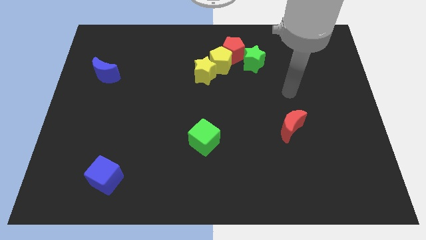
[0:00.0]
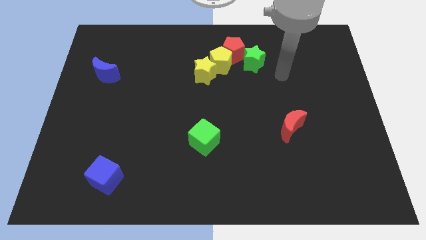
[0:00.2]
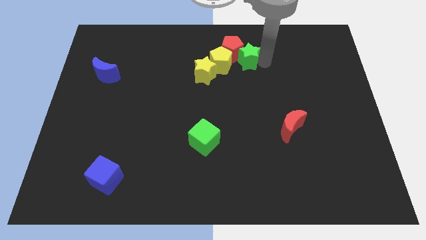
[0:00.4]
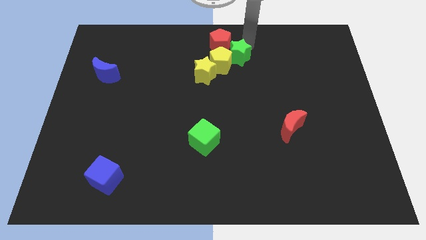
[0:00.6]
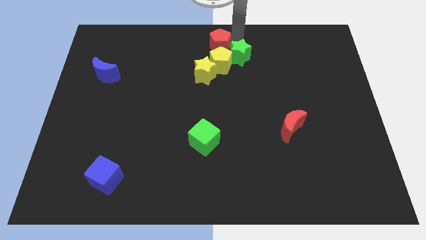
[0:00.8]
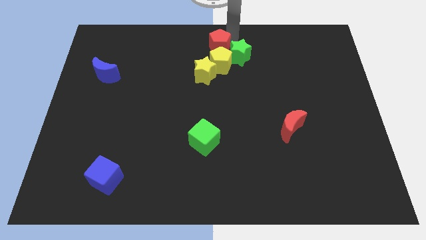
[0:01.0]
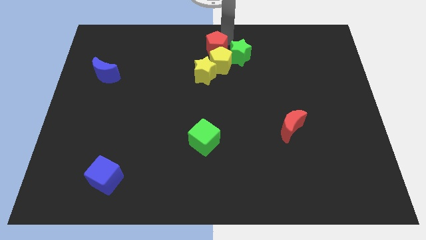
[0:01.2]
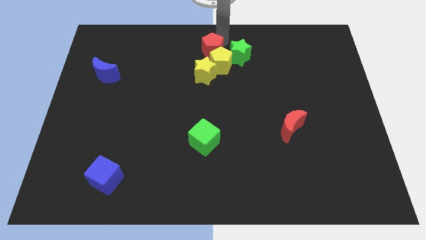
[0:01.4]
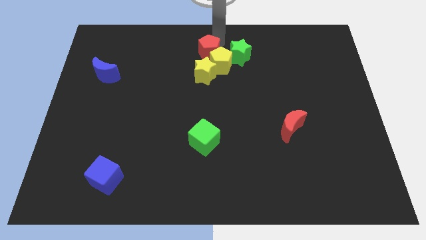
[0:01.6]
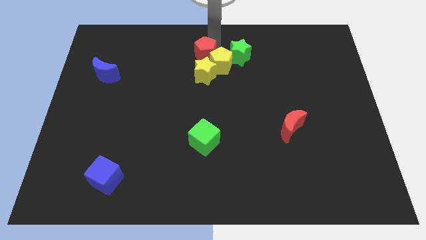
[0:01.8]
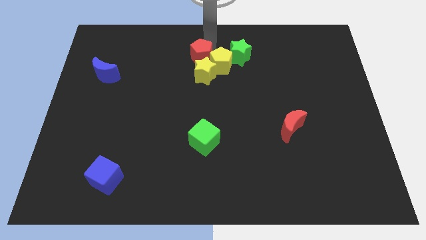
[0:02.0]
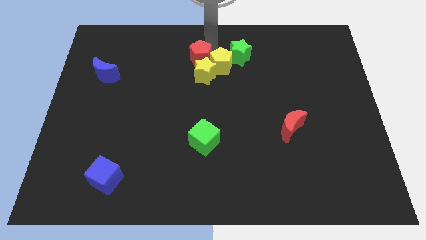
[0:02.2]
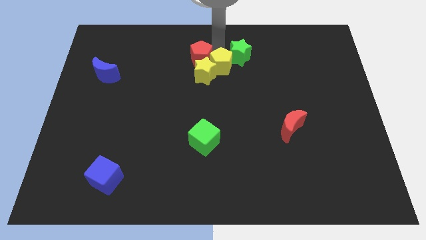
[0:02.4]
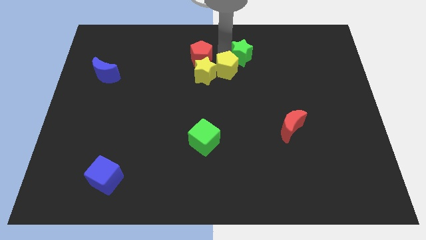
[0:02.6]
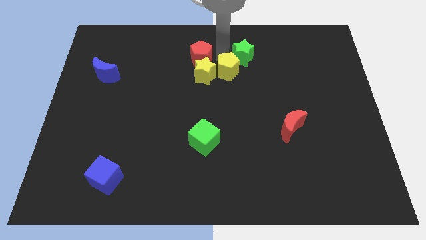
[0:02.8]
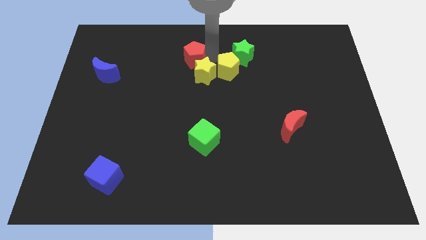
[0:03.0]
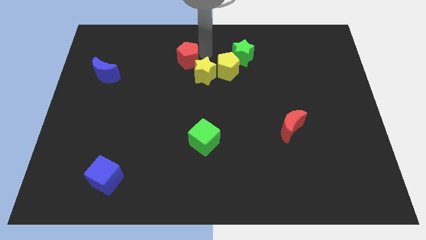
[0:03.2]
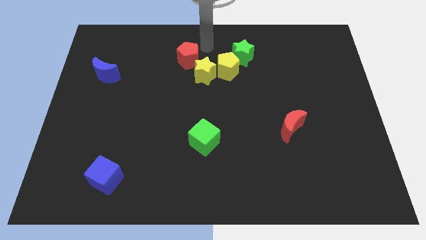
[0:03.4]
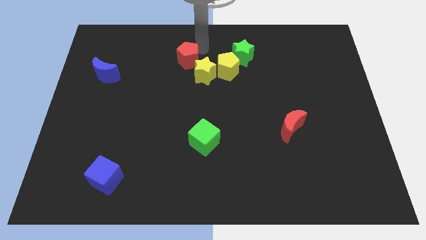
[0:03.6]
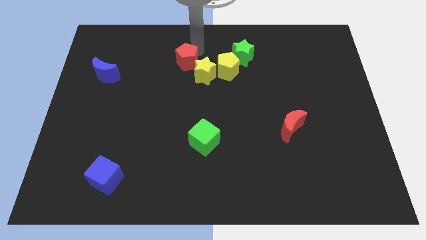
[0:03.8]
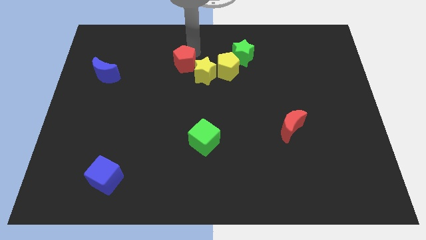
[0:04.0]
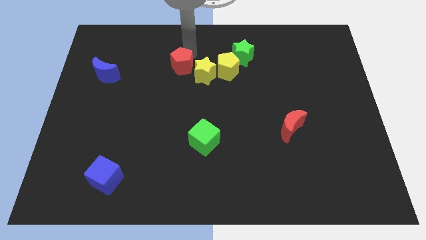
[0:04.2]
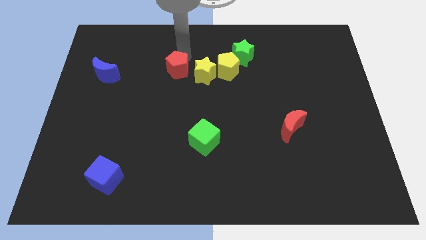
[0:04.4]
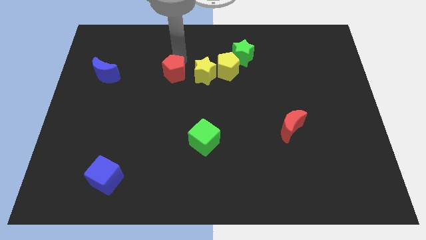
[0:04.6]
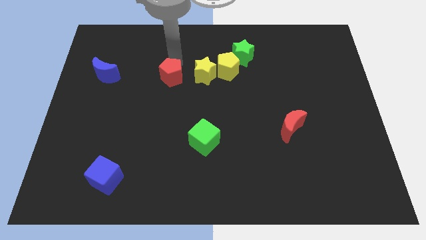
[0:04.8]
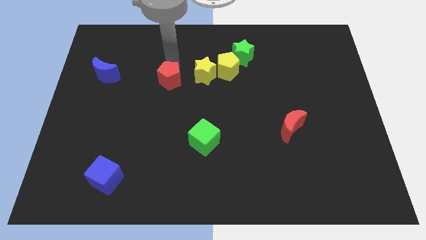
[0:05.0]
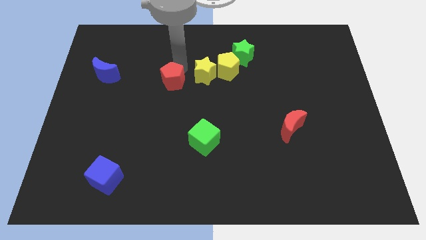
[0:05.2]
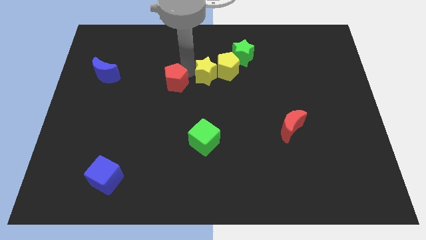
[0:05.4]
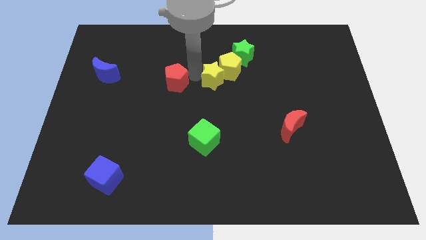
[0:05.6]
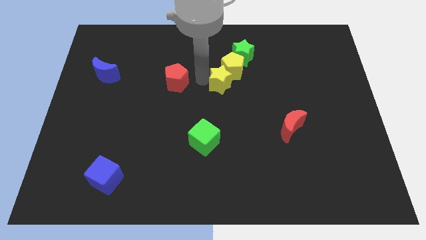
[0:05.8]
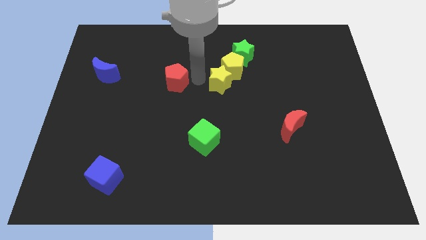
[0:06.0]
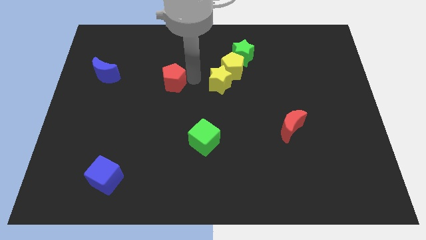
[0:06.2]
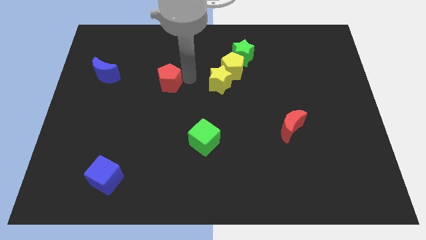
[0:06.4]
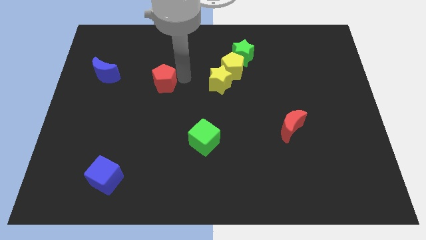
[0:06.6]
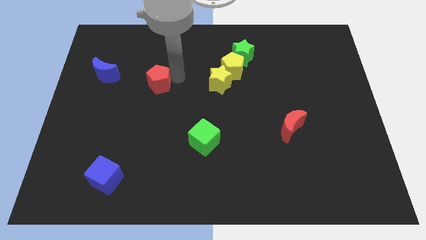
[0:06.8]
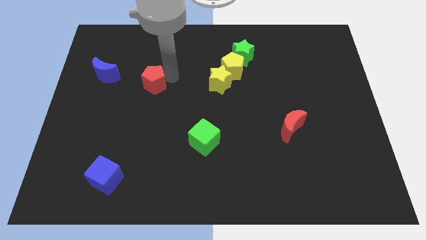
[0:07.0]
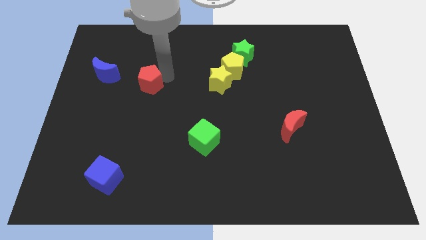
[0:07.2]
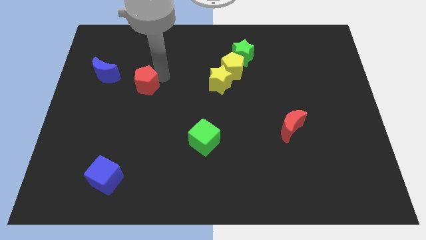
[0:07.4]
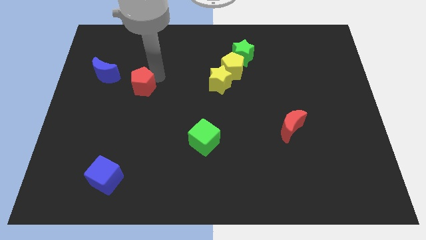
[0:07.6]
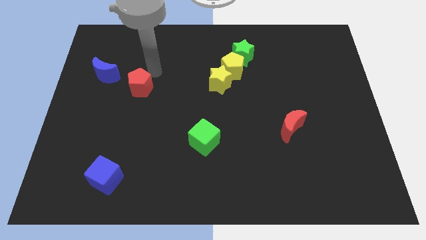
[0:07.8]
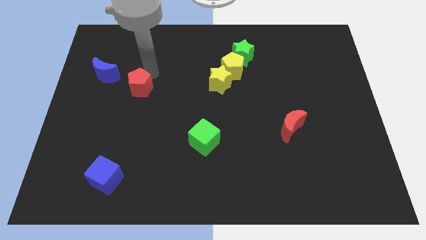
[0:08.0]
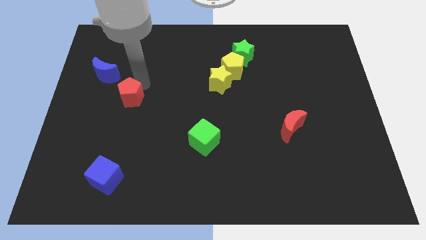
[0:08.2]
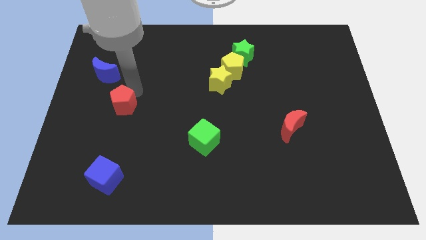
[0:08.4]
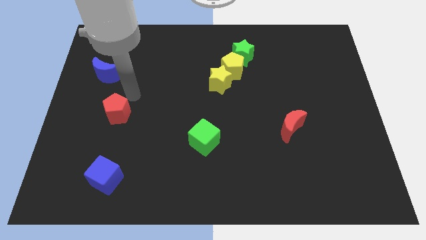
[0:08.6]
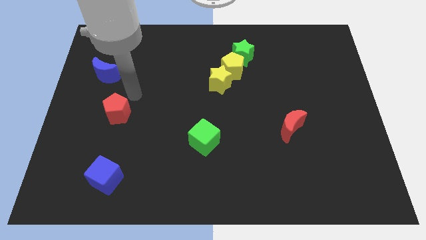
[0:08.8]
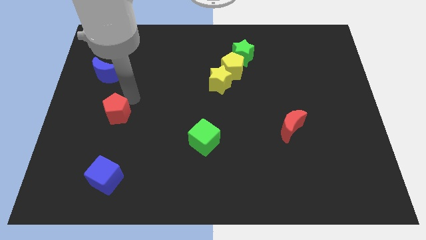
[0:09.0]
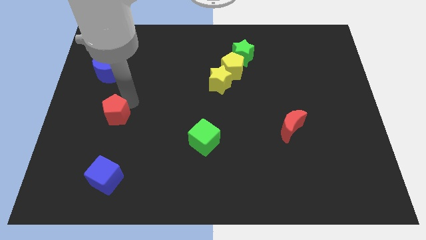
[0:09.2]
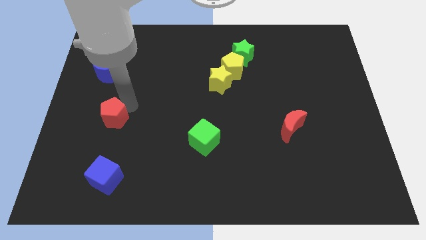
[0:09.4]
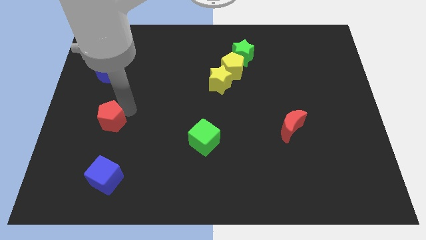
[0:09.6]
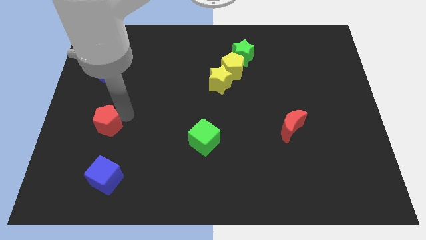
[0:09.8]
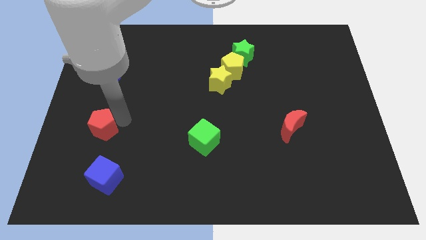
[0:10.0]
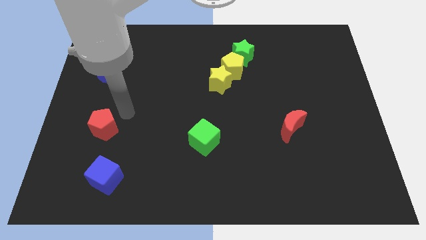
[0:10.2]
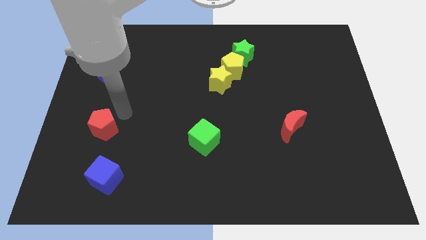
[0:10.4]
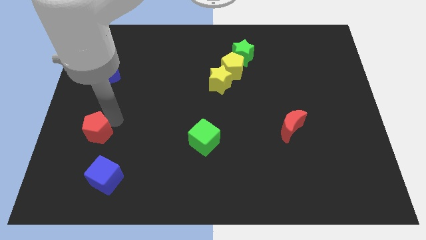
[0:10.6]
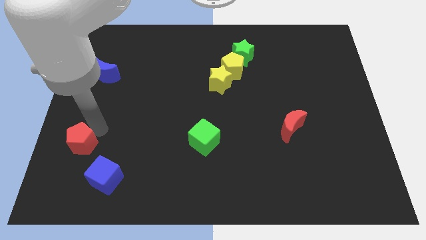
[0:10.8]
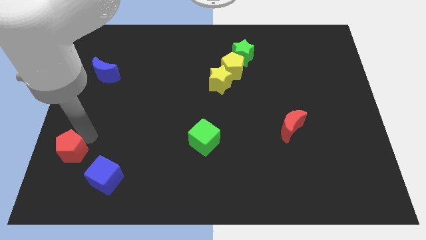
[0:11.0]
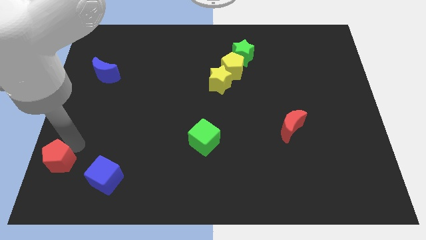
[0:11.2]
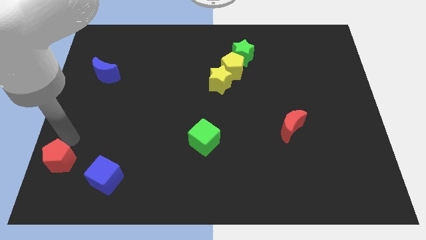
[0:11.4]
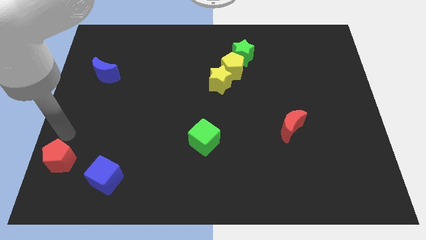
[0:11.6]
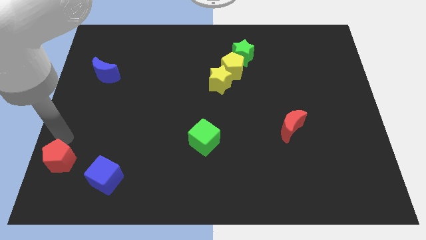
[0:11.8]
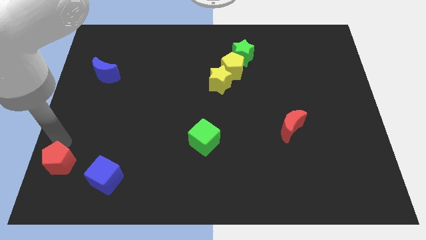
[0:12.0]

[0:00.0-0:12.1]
put the red pentagon to the lower left corner
